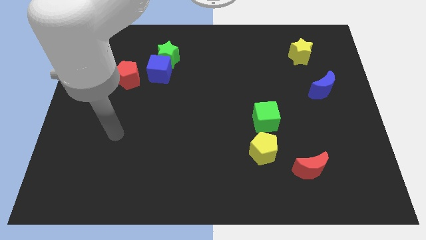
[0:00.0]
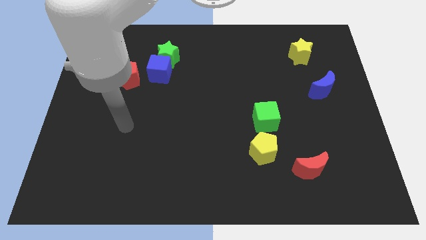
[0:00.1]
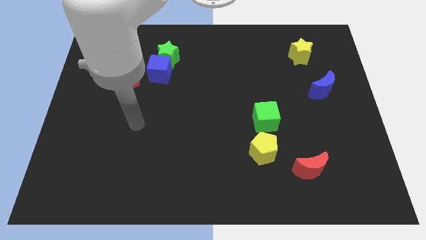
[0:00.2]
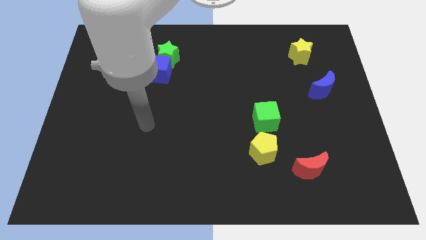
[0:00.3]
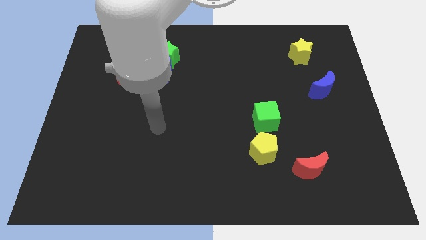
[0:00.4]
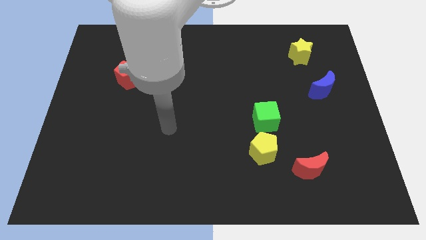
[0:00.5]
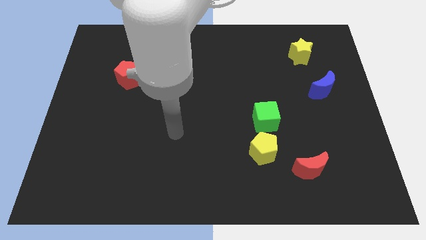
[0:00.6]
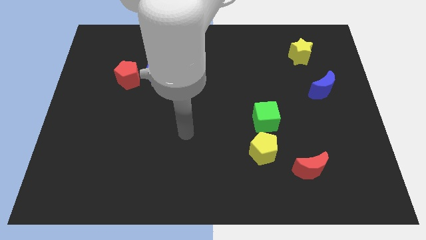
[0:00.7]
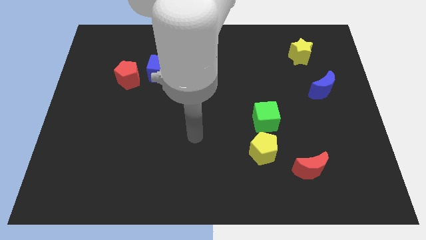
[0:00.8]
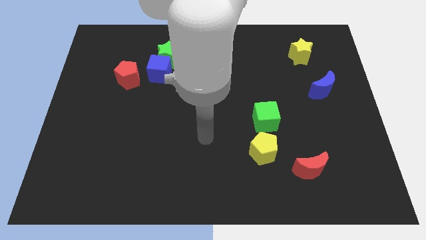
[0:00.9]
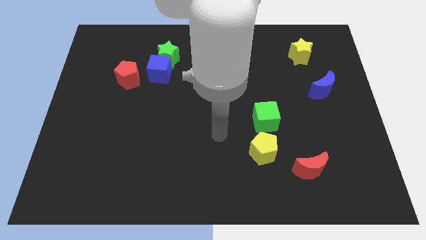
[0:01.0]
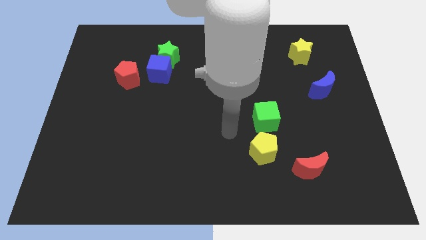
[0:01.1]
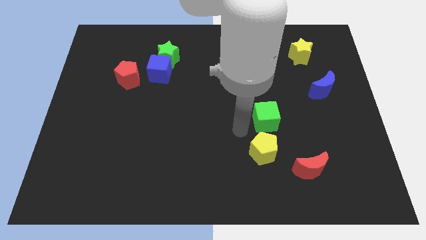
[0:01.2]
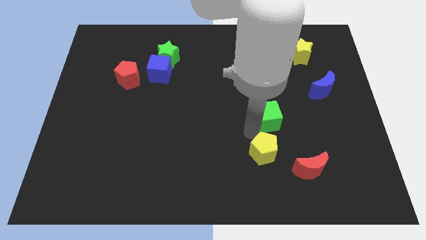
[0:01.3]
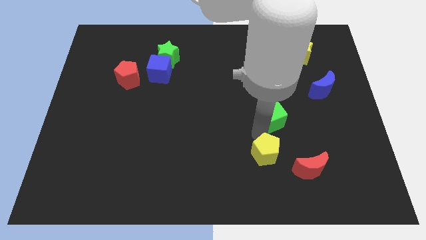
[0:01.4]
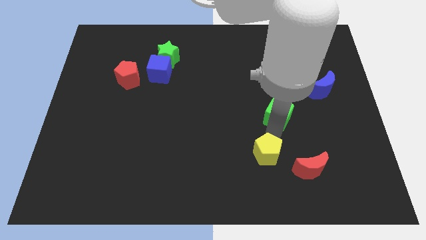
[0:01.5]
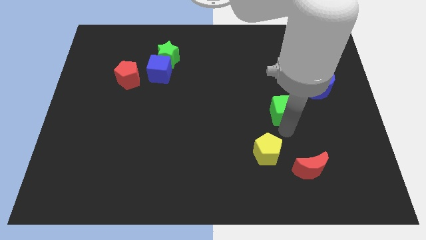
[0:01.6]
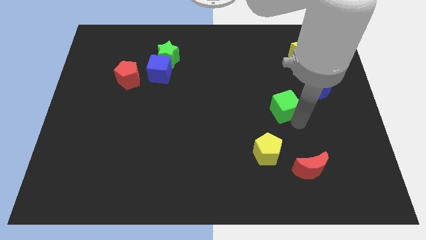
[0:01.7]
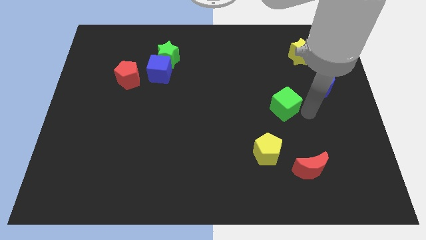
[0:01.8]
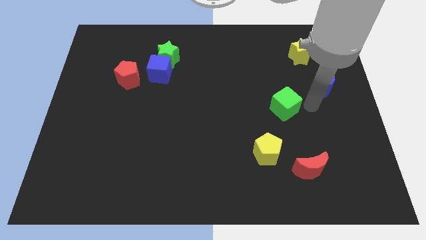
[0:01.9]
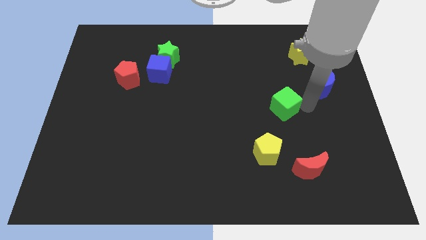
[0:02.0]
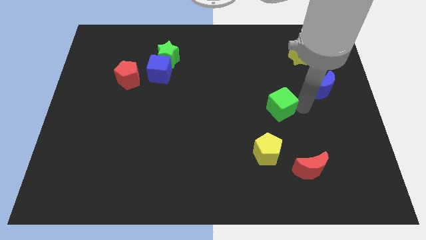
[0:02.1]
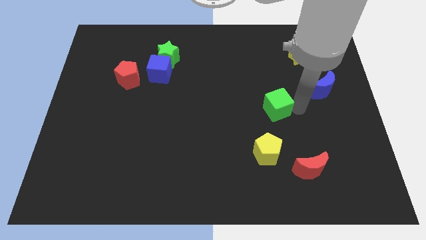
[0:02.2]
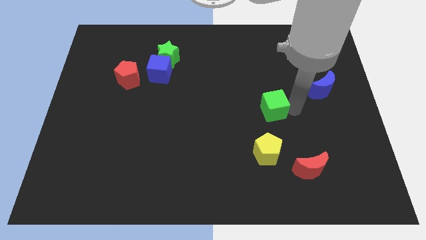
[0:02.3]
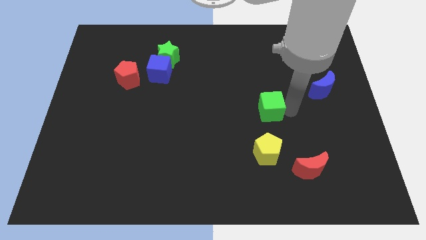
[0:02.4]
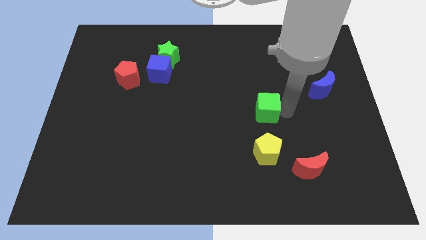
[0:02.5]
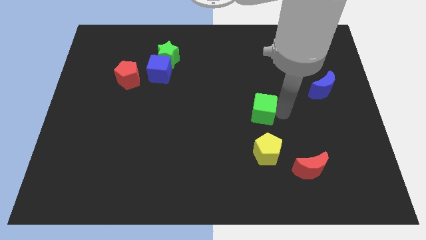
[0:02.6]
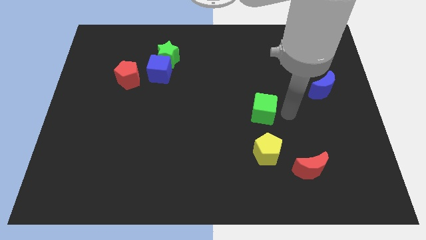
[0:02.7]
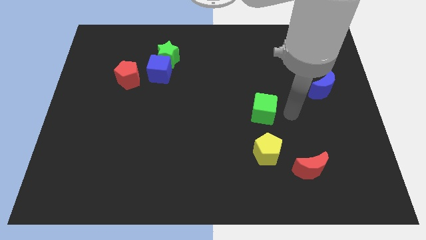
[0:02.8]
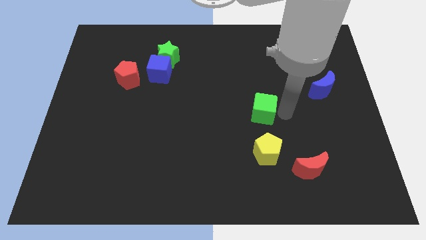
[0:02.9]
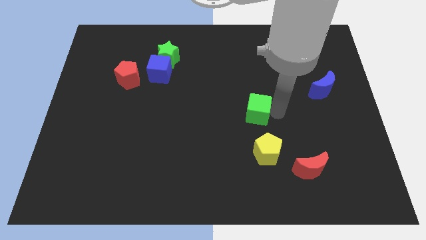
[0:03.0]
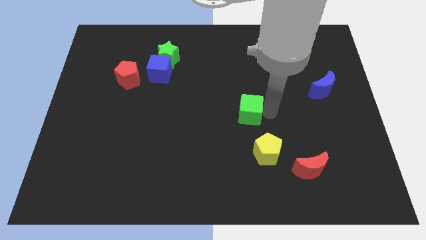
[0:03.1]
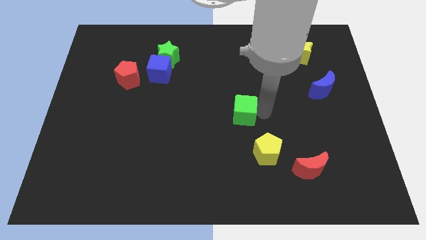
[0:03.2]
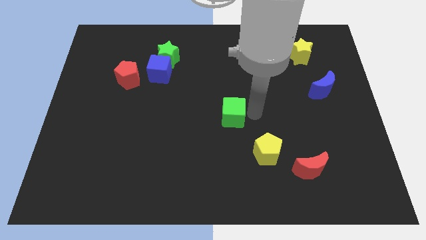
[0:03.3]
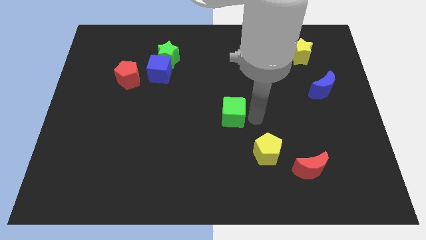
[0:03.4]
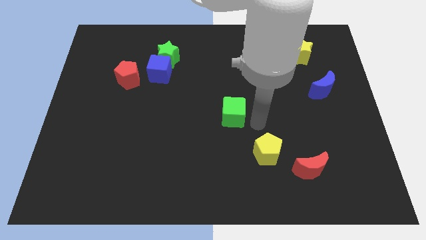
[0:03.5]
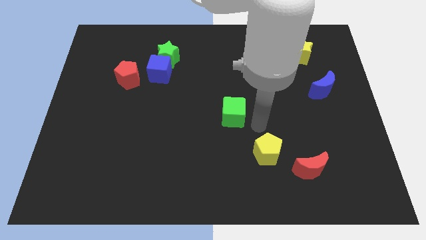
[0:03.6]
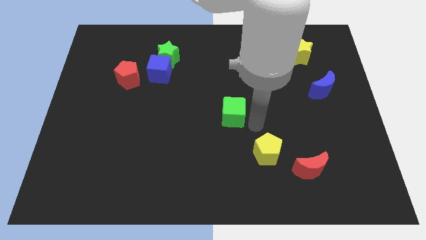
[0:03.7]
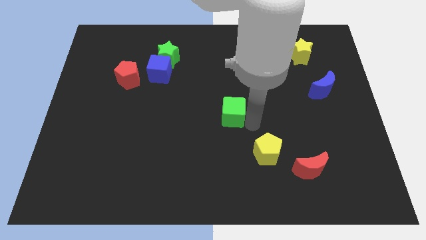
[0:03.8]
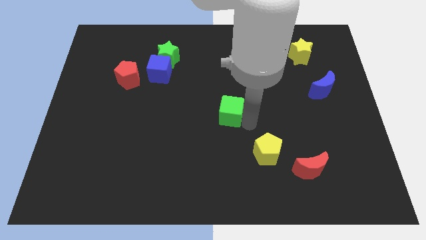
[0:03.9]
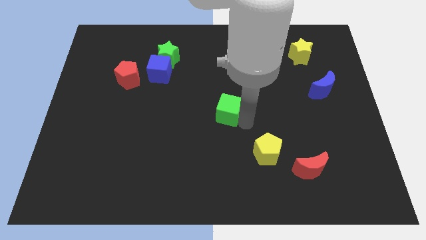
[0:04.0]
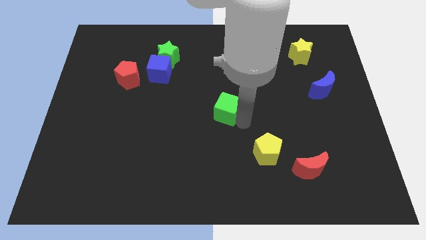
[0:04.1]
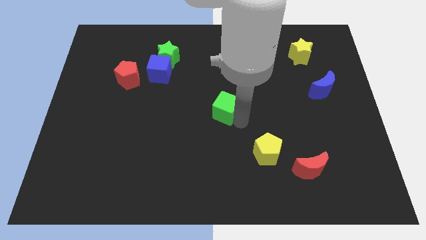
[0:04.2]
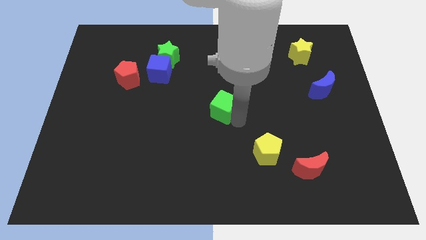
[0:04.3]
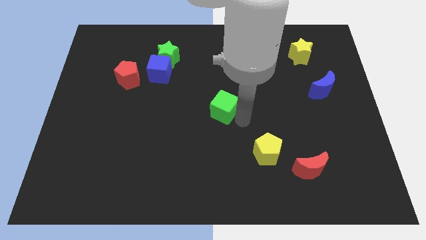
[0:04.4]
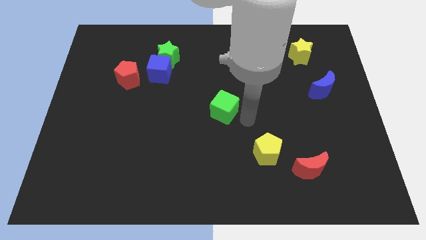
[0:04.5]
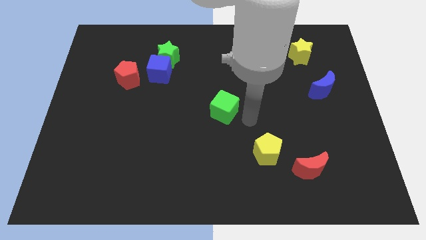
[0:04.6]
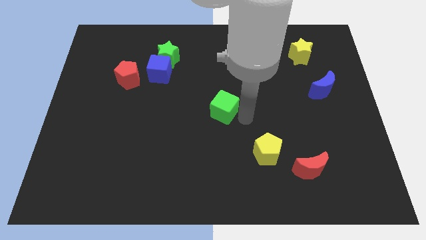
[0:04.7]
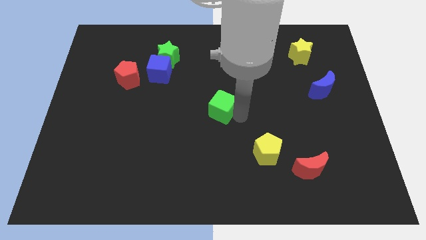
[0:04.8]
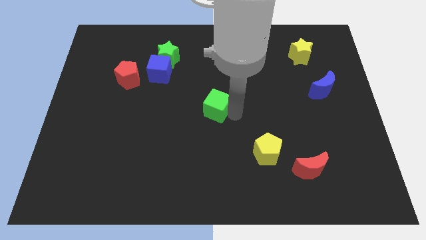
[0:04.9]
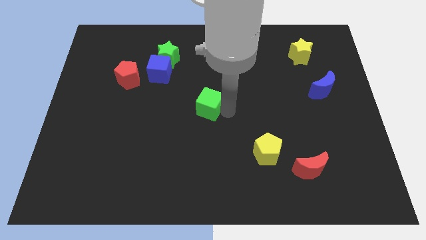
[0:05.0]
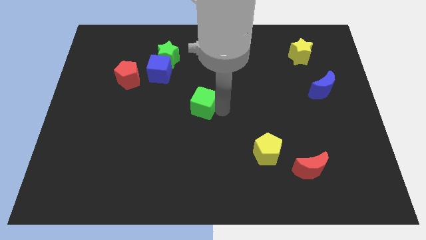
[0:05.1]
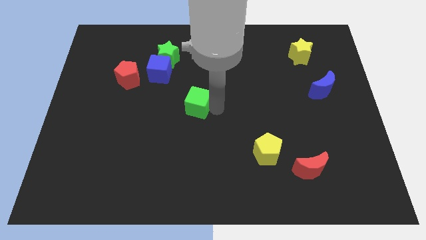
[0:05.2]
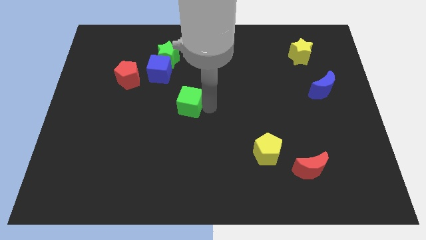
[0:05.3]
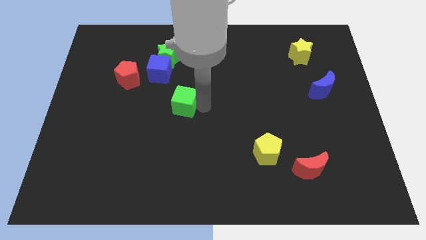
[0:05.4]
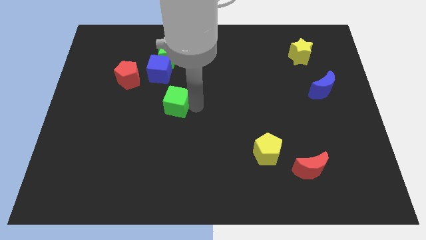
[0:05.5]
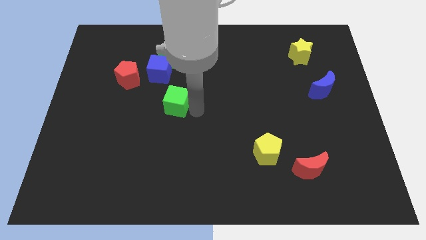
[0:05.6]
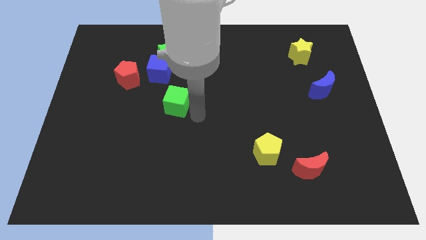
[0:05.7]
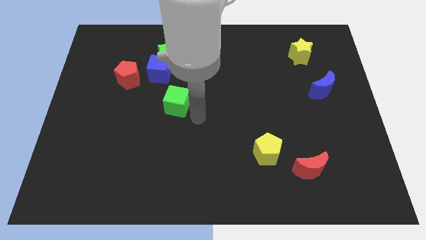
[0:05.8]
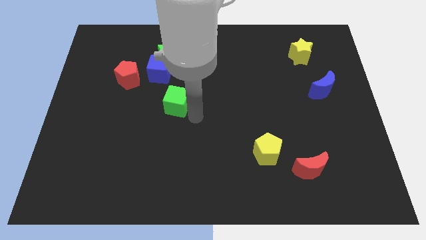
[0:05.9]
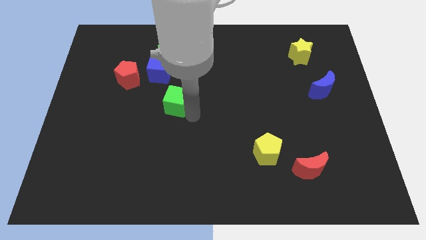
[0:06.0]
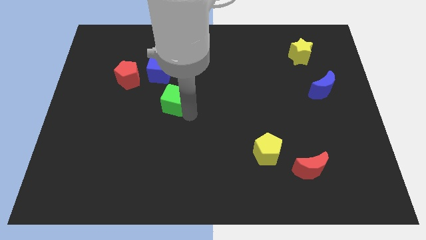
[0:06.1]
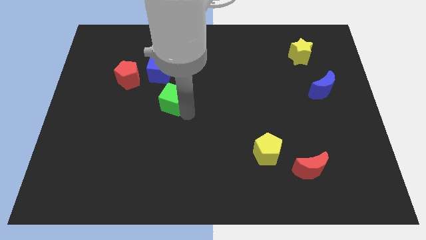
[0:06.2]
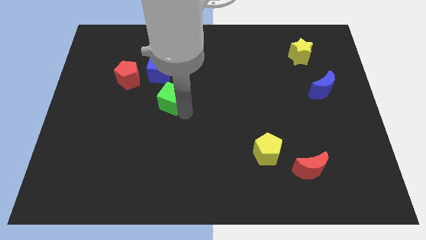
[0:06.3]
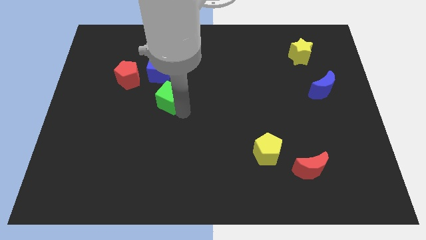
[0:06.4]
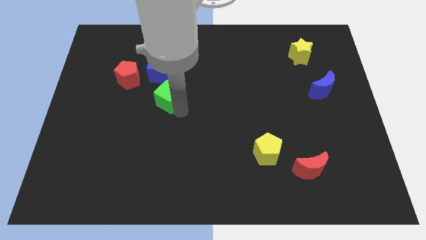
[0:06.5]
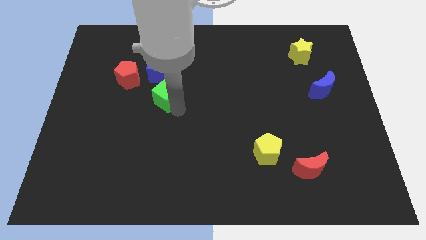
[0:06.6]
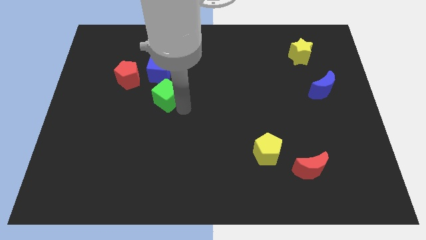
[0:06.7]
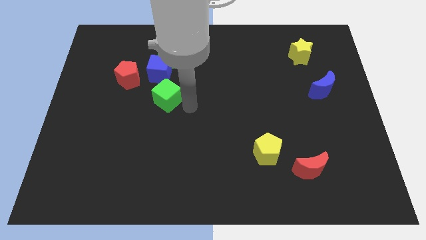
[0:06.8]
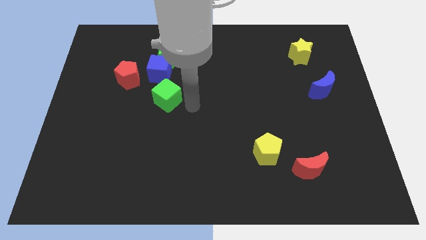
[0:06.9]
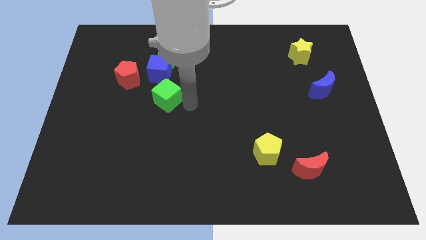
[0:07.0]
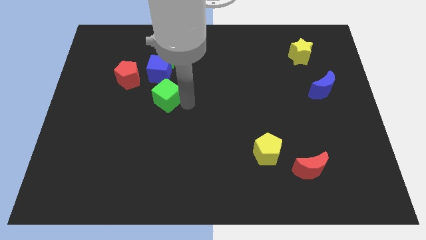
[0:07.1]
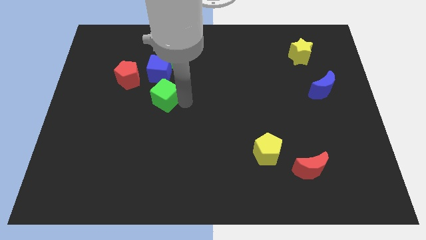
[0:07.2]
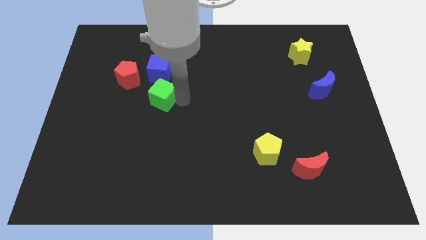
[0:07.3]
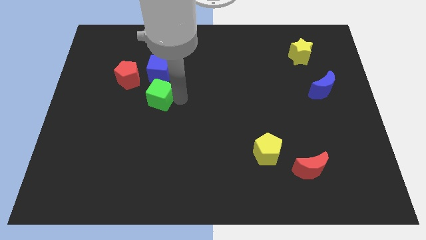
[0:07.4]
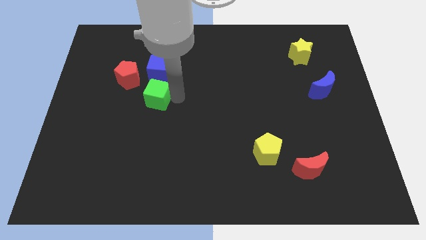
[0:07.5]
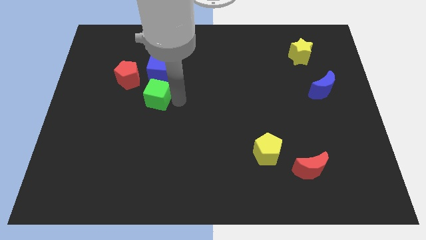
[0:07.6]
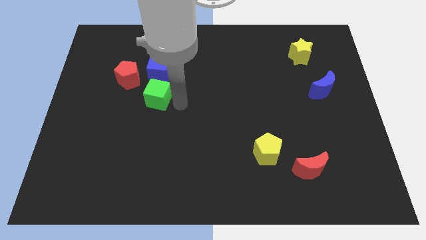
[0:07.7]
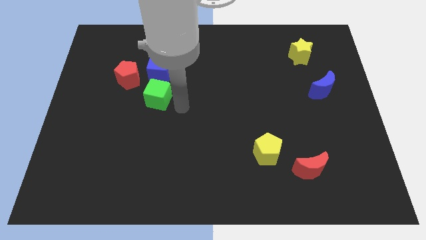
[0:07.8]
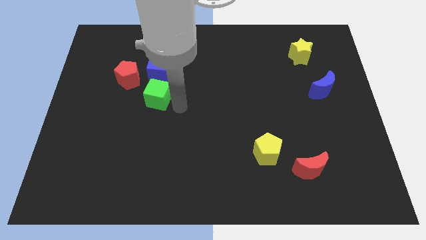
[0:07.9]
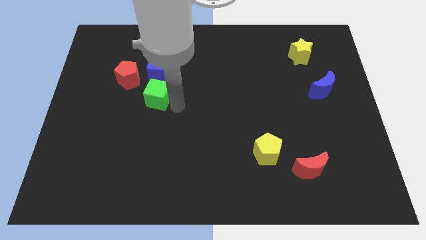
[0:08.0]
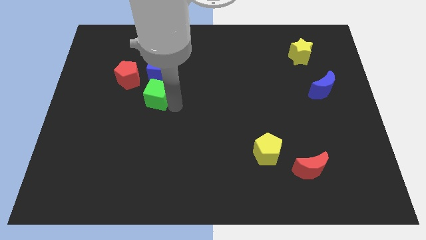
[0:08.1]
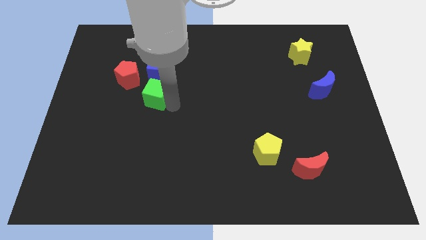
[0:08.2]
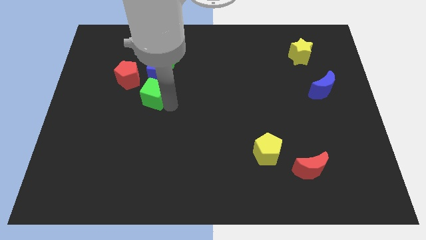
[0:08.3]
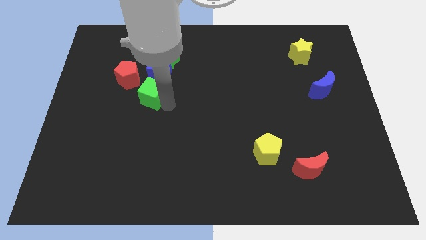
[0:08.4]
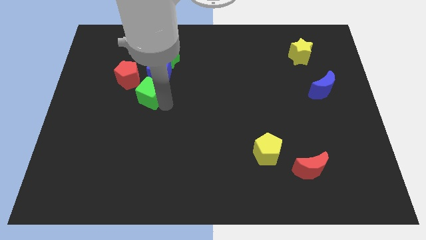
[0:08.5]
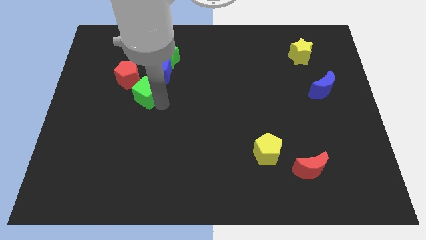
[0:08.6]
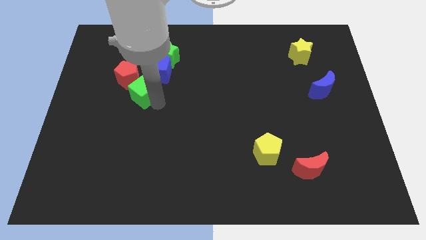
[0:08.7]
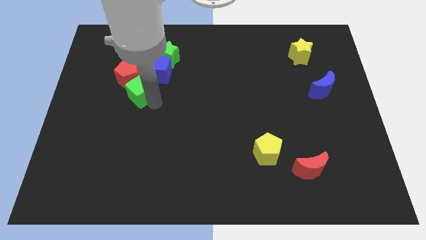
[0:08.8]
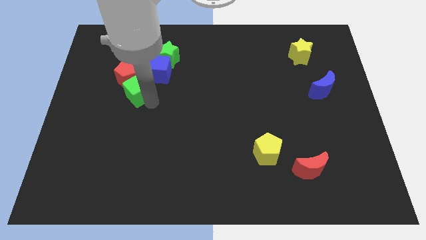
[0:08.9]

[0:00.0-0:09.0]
push the green cube towards the red pentagon
